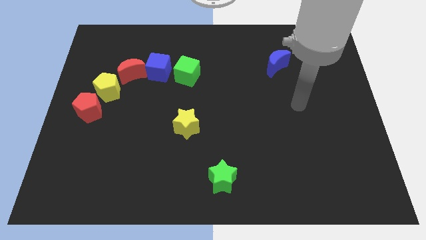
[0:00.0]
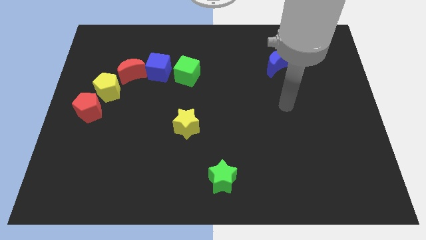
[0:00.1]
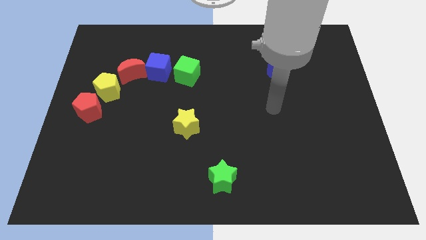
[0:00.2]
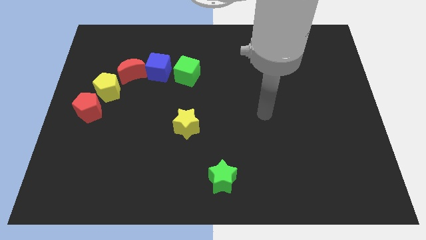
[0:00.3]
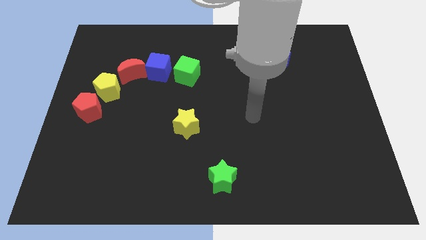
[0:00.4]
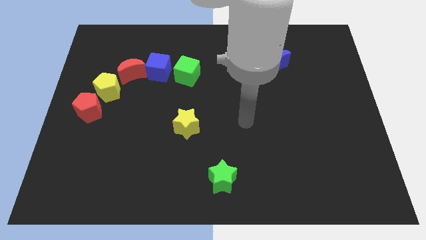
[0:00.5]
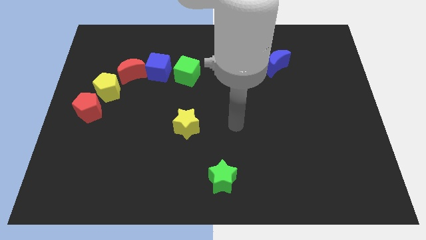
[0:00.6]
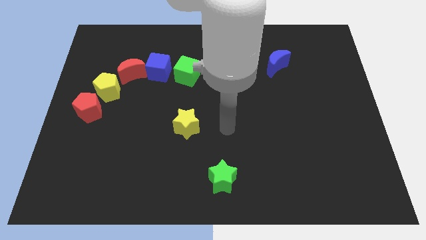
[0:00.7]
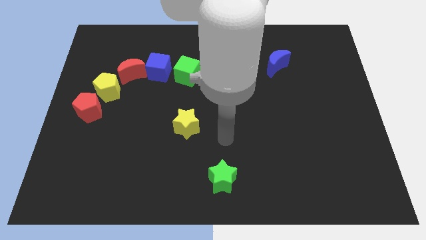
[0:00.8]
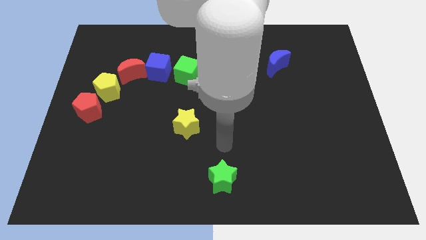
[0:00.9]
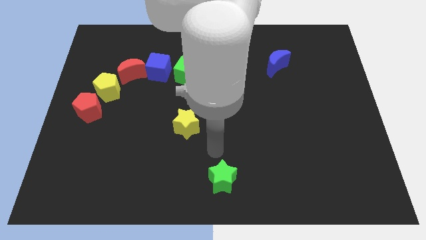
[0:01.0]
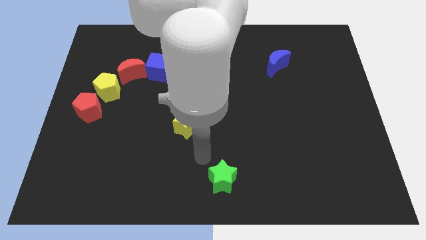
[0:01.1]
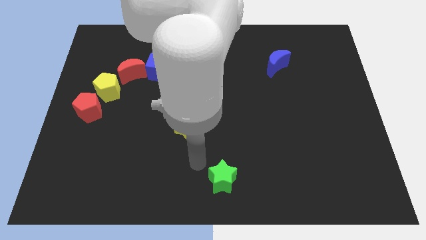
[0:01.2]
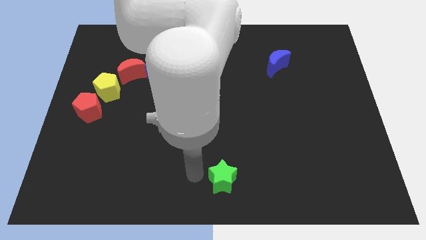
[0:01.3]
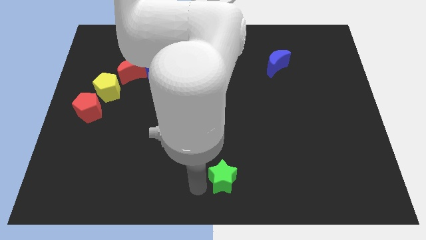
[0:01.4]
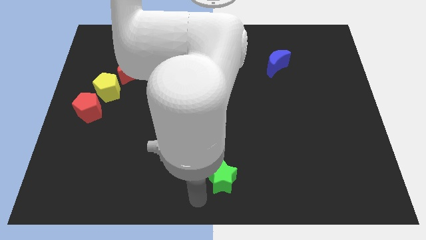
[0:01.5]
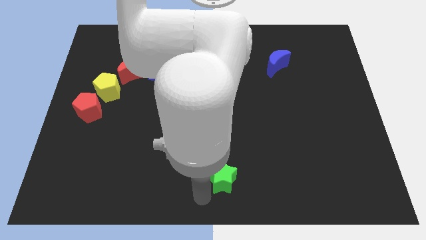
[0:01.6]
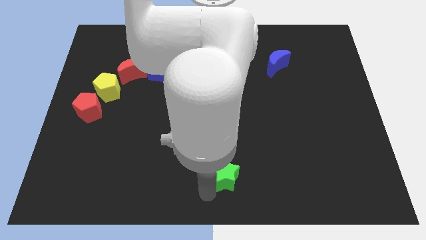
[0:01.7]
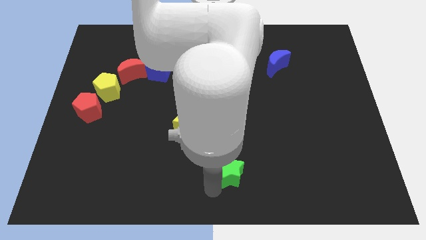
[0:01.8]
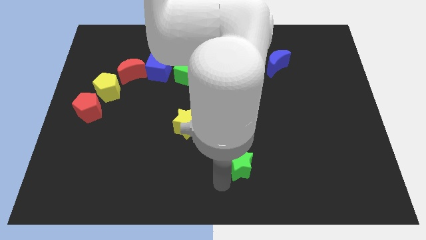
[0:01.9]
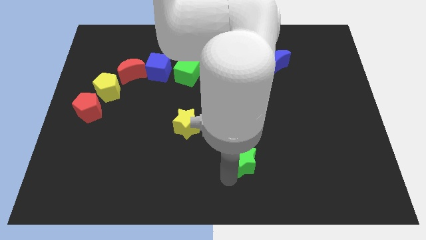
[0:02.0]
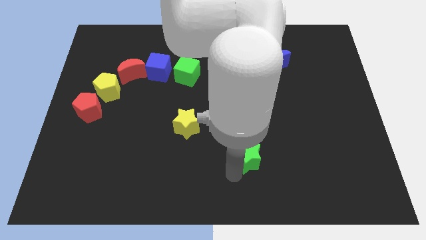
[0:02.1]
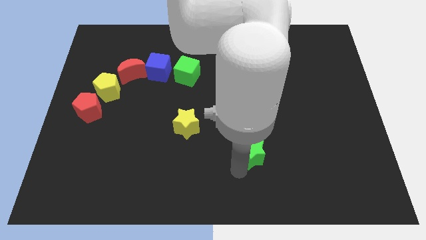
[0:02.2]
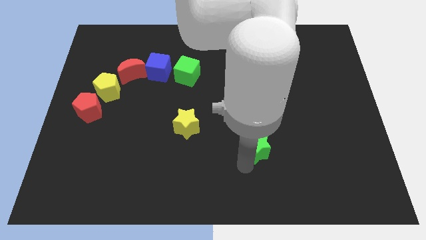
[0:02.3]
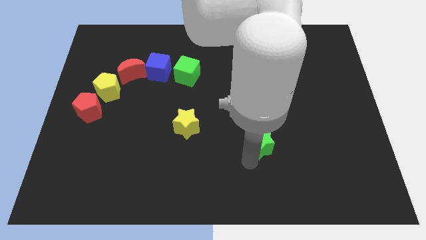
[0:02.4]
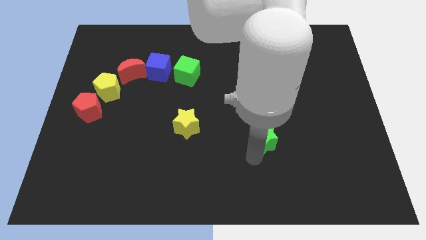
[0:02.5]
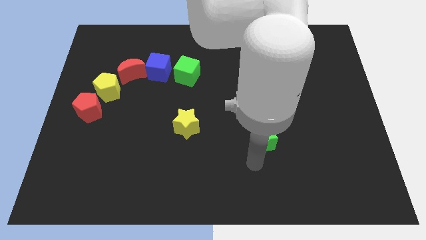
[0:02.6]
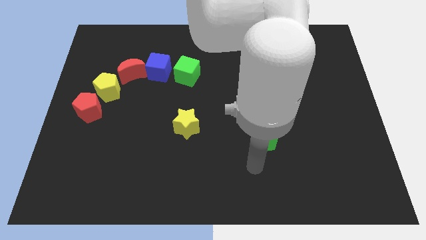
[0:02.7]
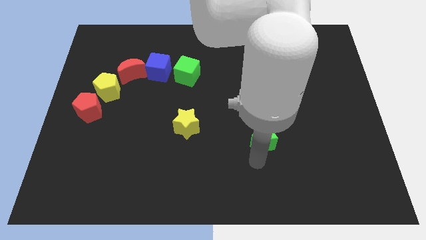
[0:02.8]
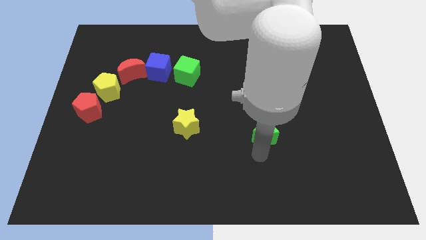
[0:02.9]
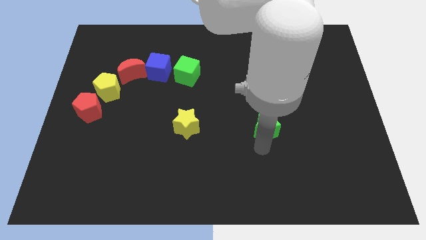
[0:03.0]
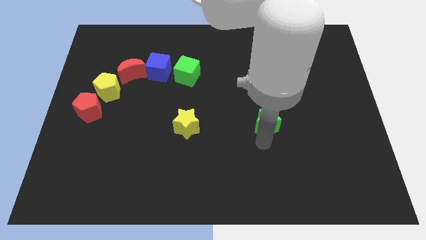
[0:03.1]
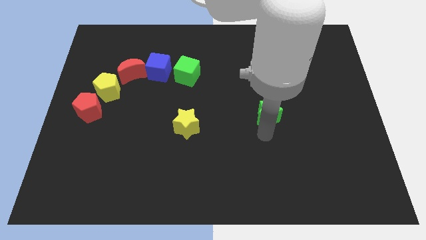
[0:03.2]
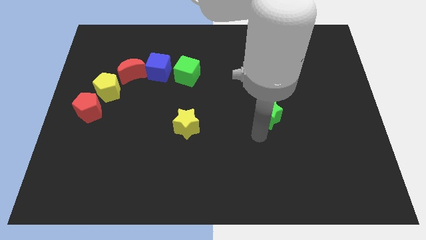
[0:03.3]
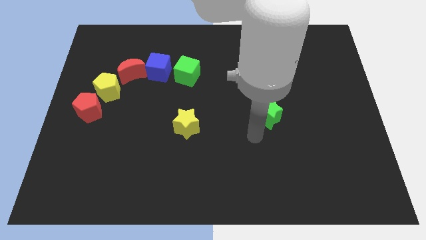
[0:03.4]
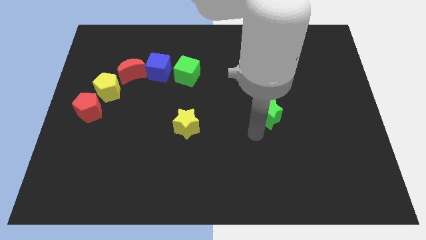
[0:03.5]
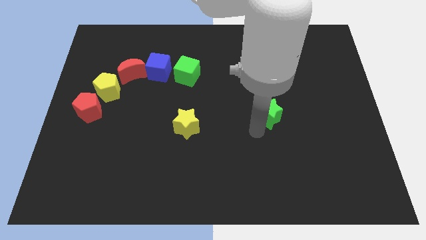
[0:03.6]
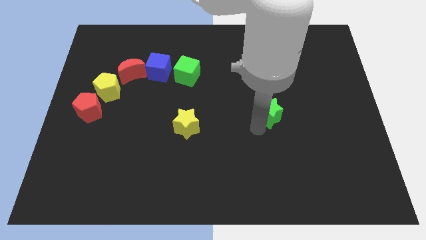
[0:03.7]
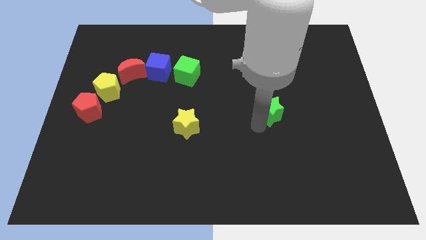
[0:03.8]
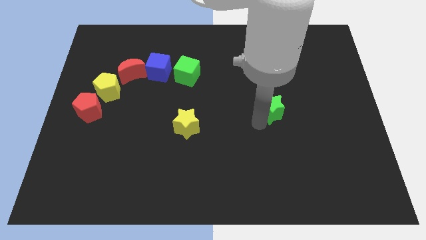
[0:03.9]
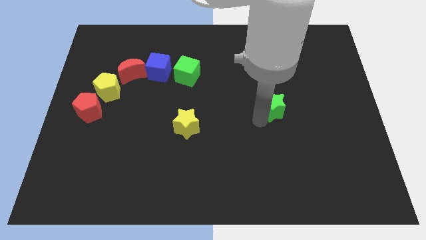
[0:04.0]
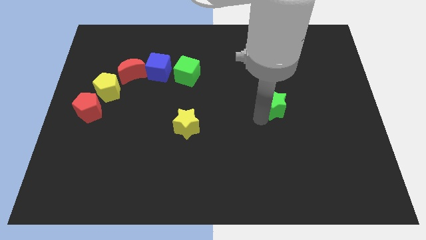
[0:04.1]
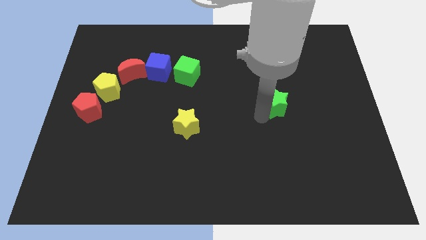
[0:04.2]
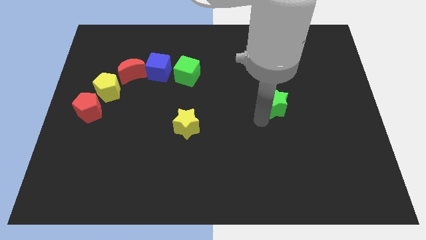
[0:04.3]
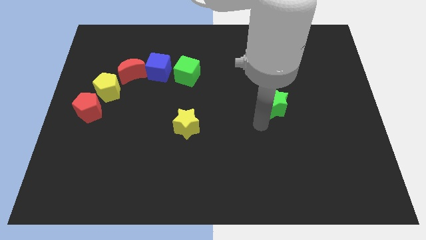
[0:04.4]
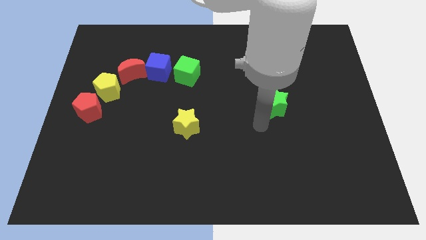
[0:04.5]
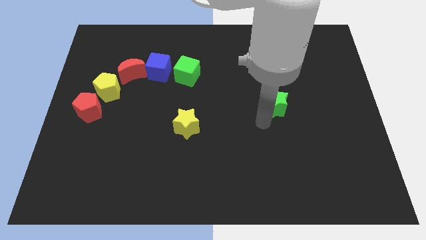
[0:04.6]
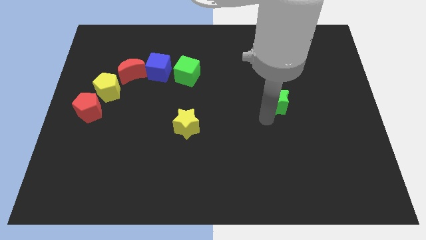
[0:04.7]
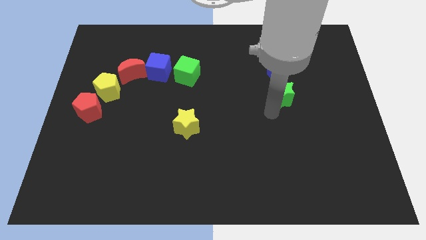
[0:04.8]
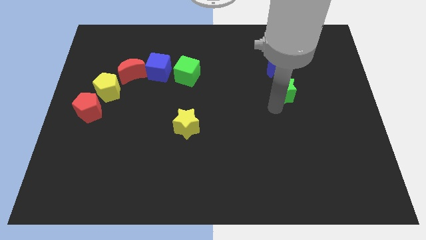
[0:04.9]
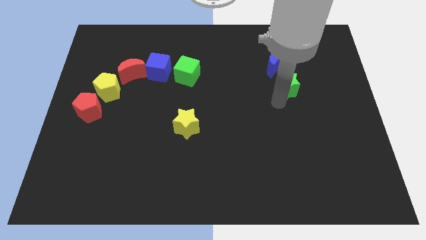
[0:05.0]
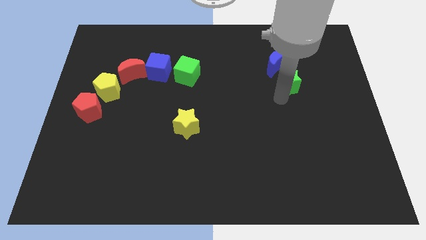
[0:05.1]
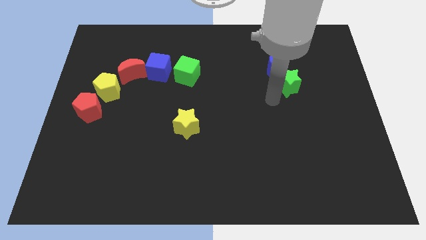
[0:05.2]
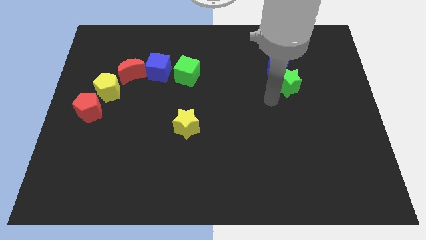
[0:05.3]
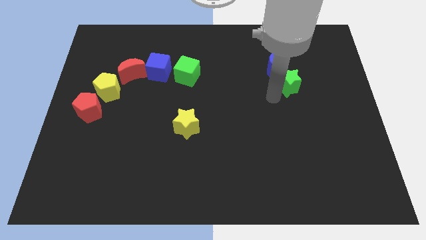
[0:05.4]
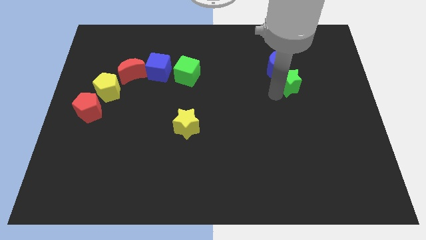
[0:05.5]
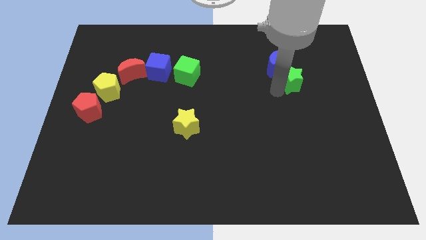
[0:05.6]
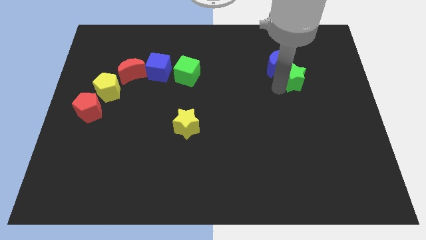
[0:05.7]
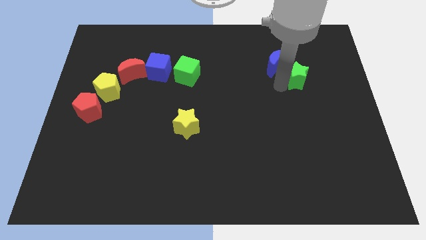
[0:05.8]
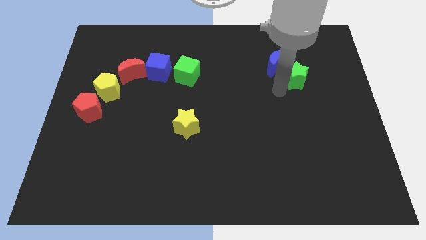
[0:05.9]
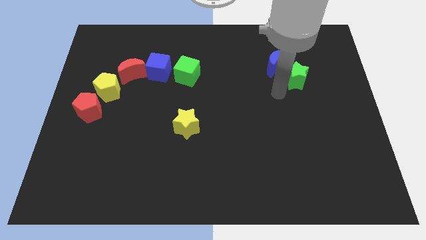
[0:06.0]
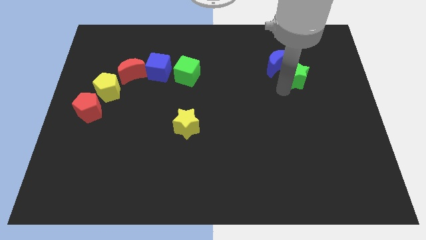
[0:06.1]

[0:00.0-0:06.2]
put the green star to the right of the blue moon

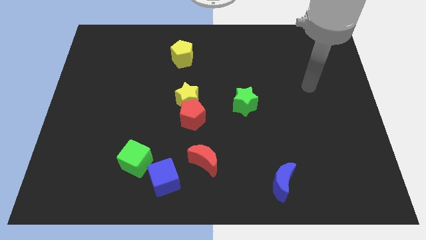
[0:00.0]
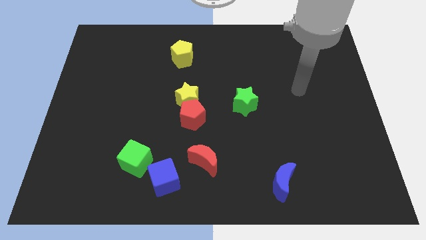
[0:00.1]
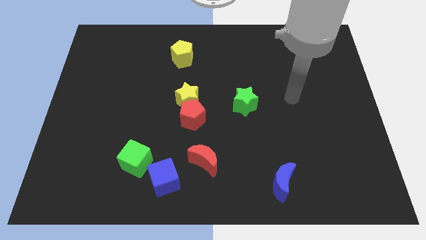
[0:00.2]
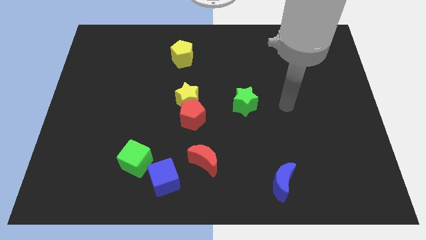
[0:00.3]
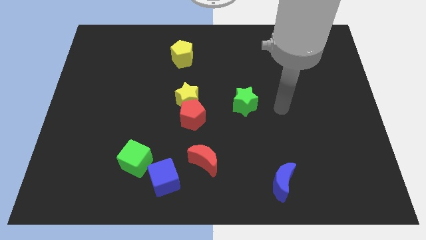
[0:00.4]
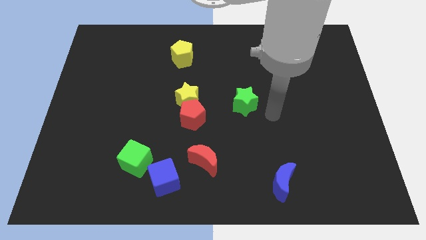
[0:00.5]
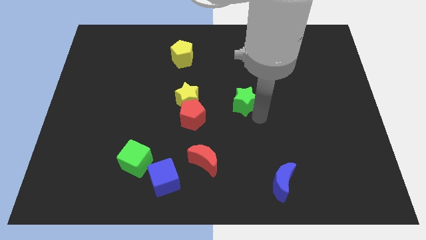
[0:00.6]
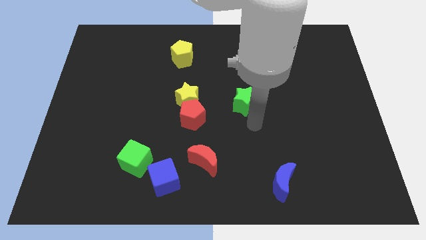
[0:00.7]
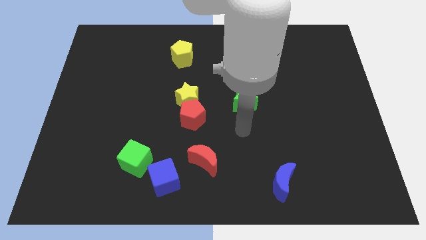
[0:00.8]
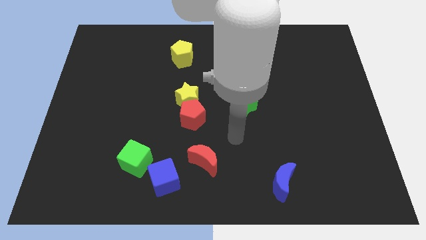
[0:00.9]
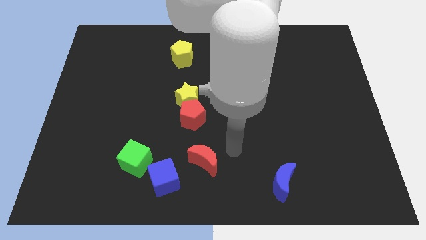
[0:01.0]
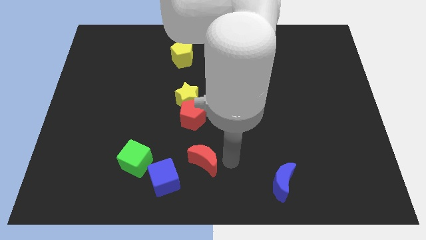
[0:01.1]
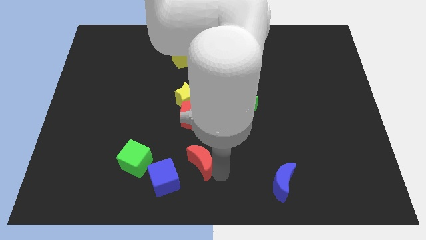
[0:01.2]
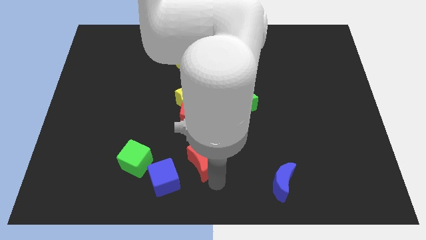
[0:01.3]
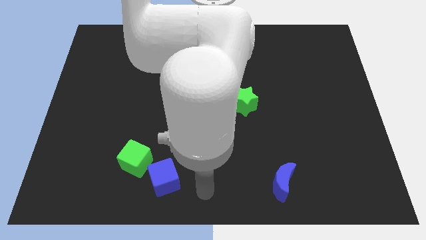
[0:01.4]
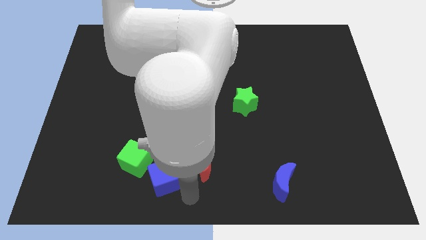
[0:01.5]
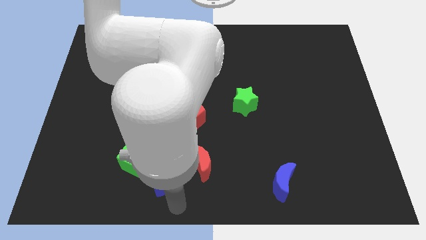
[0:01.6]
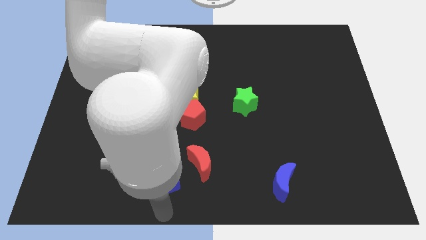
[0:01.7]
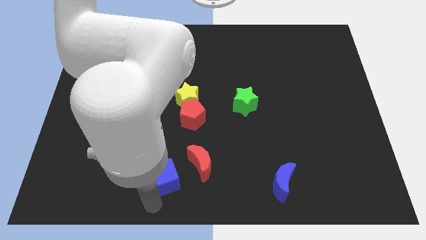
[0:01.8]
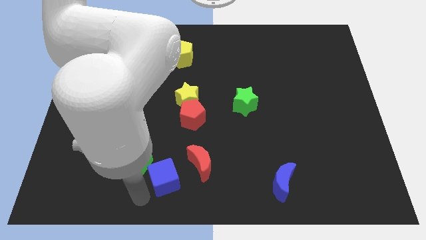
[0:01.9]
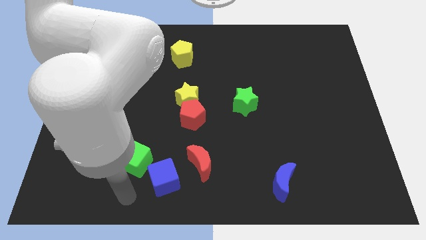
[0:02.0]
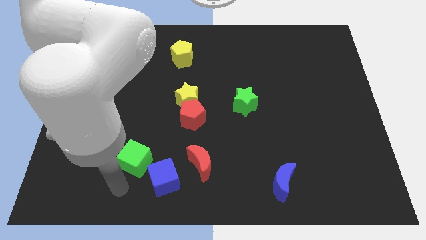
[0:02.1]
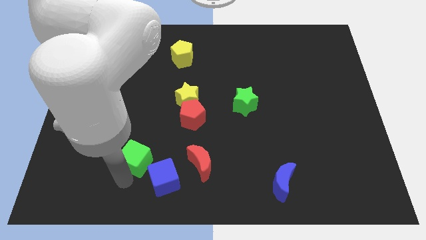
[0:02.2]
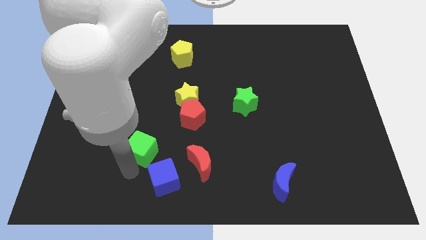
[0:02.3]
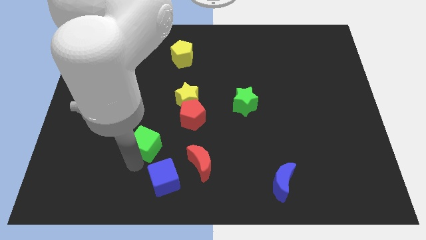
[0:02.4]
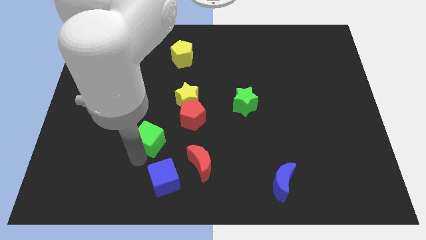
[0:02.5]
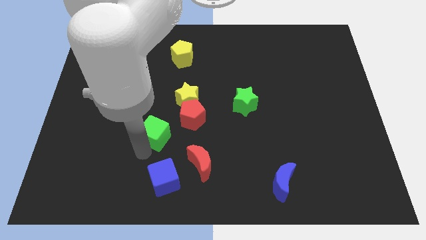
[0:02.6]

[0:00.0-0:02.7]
put the green cube to the bottom left side of the yellow star
